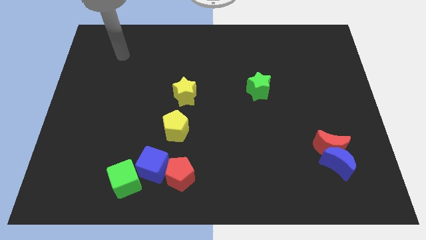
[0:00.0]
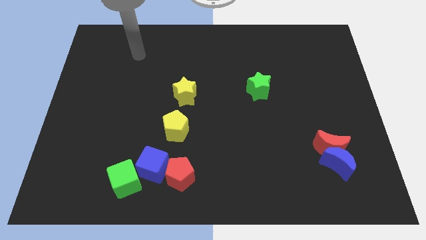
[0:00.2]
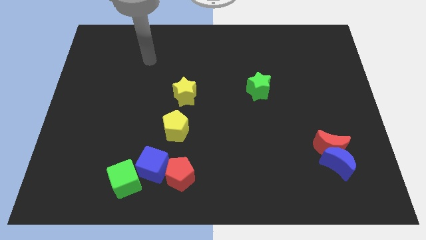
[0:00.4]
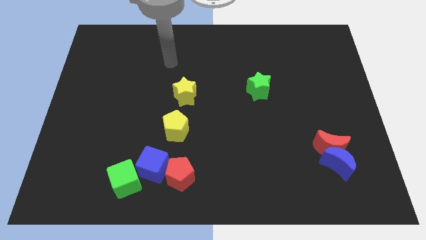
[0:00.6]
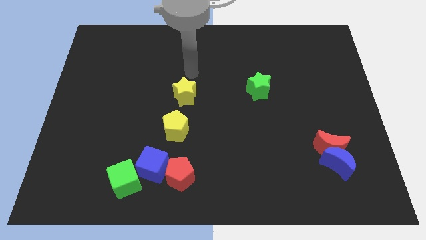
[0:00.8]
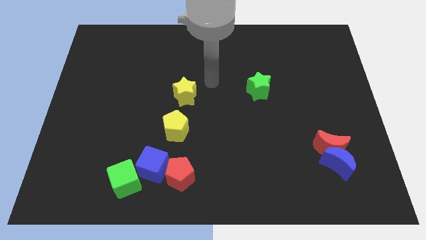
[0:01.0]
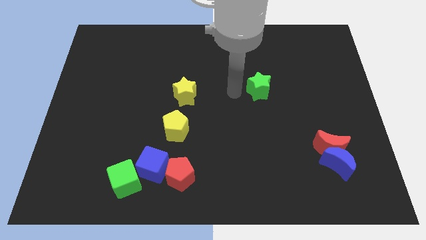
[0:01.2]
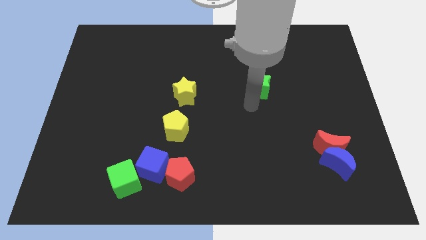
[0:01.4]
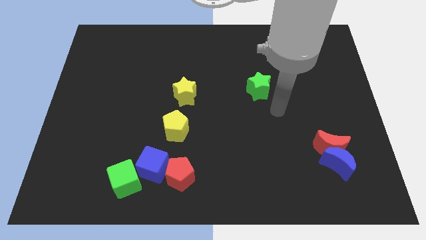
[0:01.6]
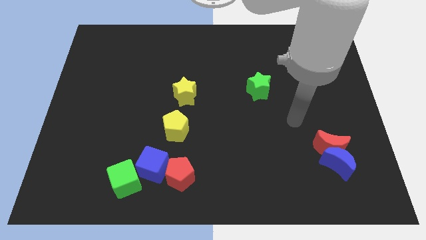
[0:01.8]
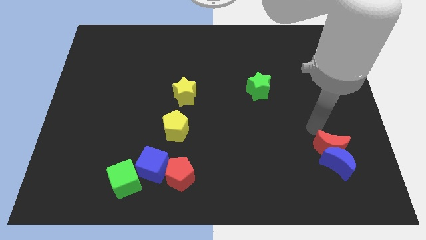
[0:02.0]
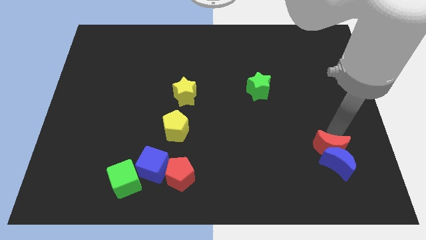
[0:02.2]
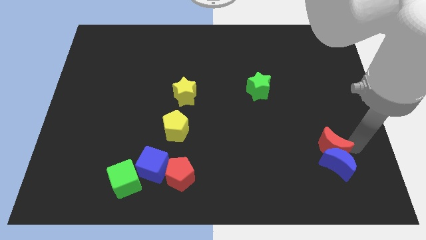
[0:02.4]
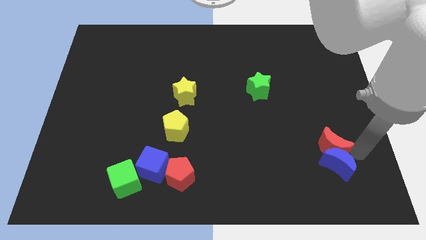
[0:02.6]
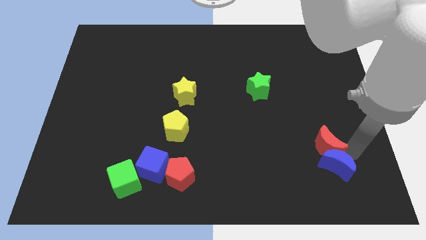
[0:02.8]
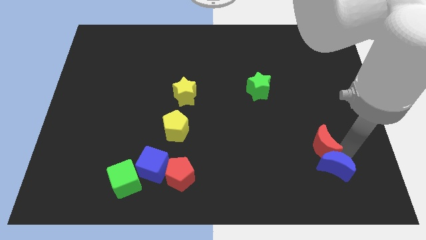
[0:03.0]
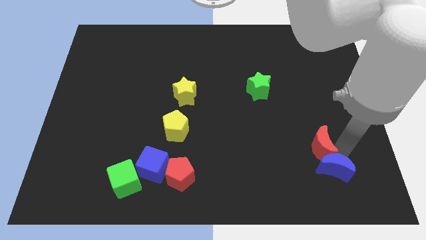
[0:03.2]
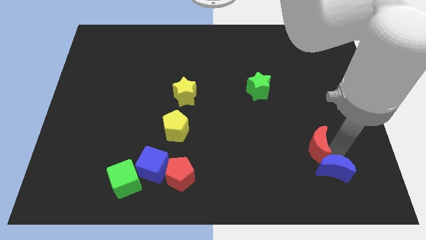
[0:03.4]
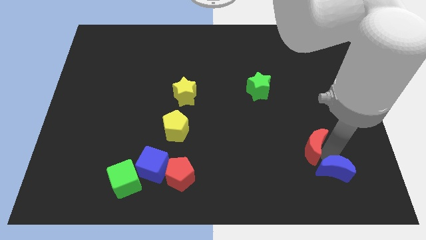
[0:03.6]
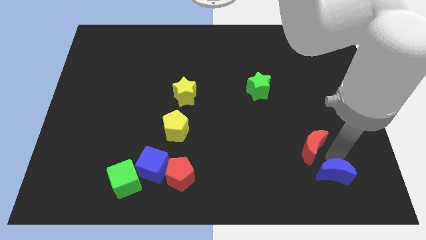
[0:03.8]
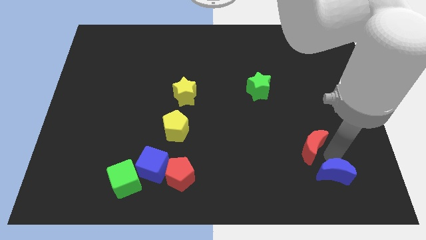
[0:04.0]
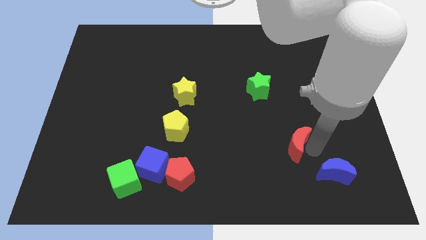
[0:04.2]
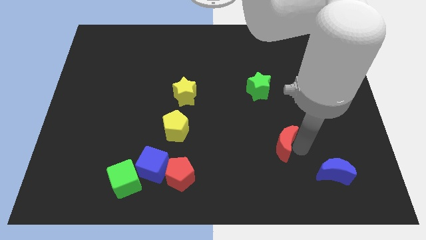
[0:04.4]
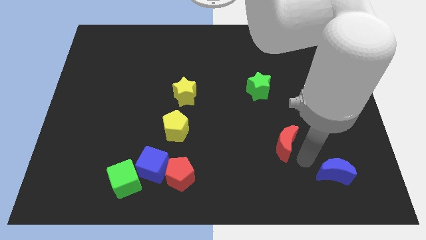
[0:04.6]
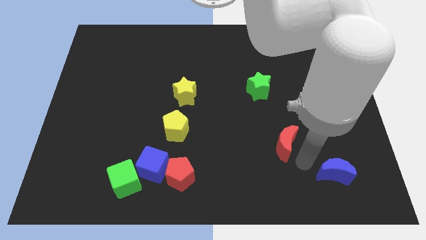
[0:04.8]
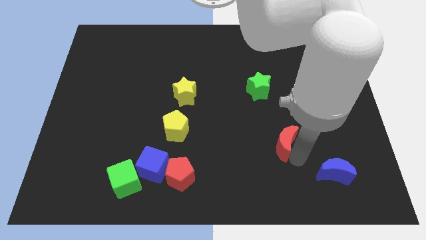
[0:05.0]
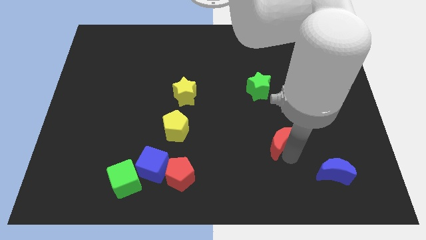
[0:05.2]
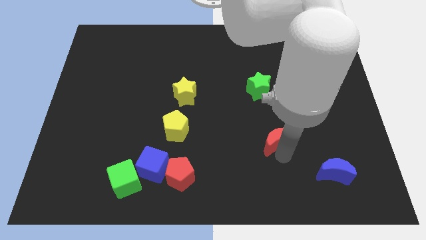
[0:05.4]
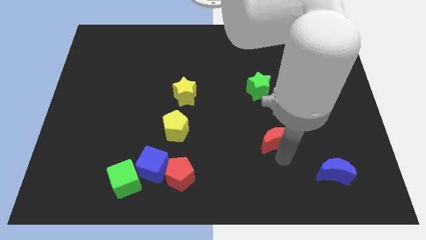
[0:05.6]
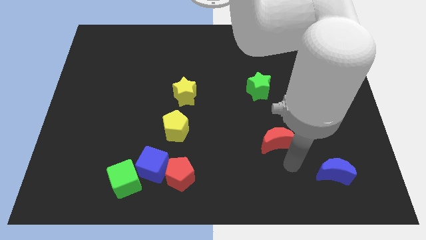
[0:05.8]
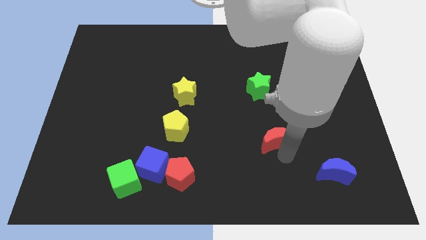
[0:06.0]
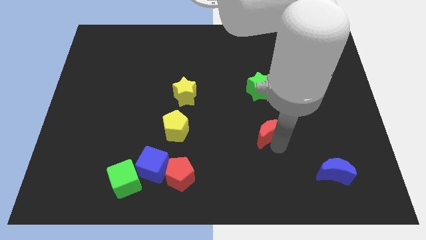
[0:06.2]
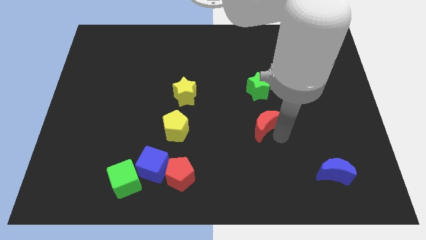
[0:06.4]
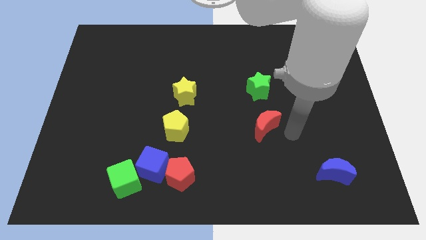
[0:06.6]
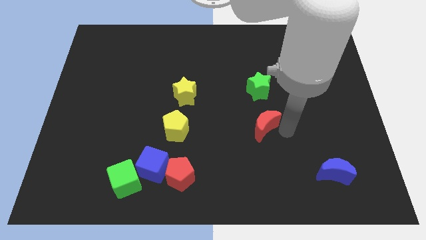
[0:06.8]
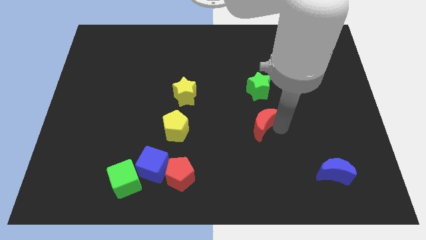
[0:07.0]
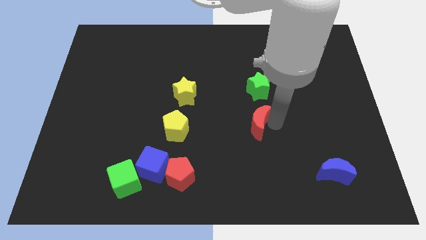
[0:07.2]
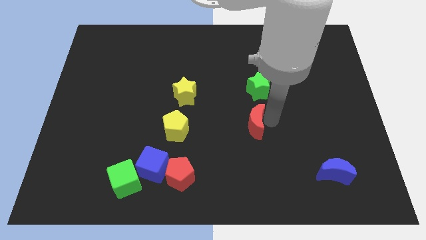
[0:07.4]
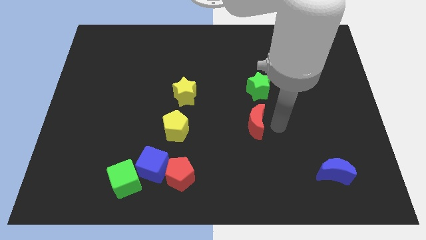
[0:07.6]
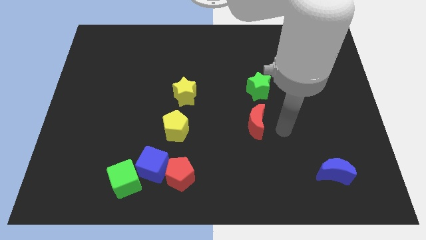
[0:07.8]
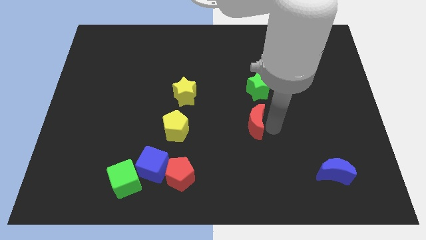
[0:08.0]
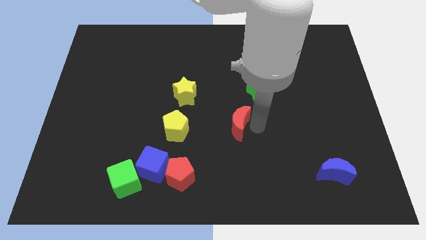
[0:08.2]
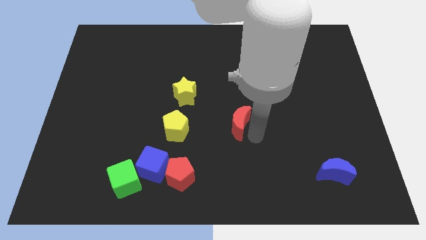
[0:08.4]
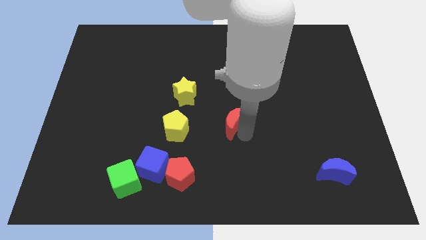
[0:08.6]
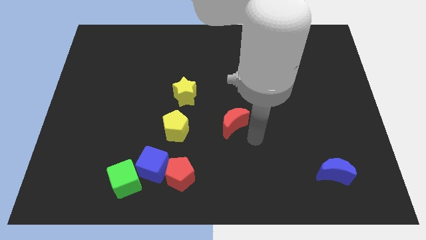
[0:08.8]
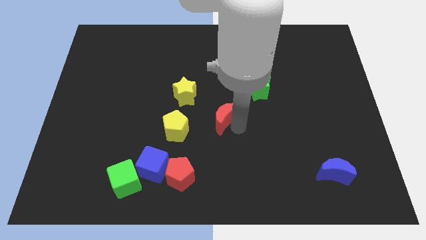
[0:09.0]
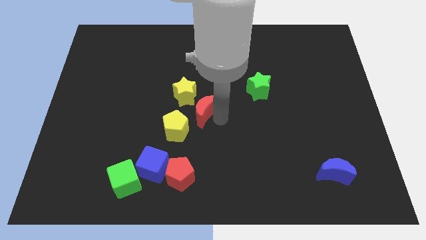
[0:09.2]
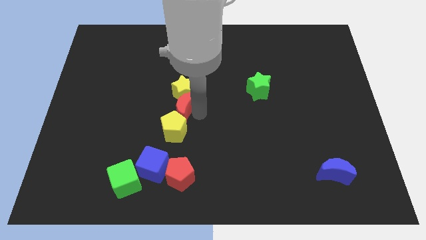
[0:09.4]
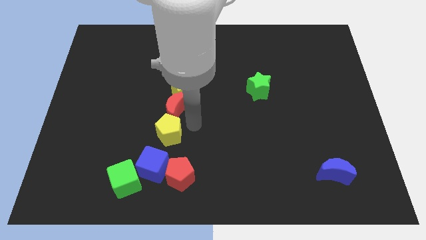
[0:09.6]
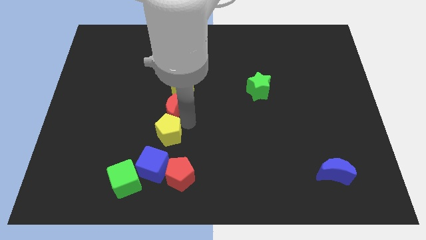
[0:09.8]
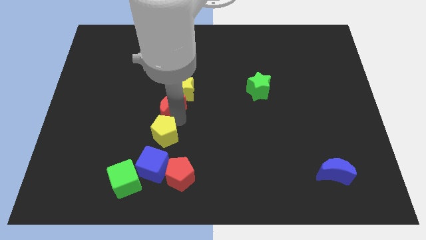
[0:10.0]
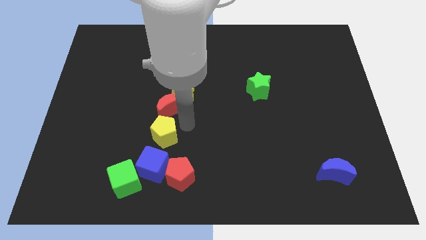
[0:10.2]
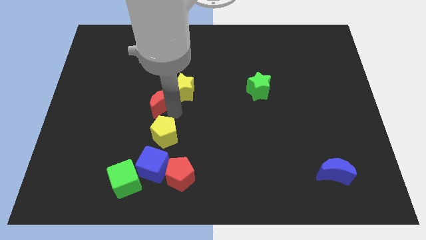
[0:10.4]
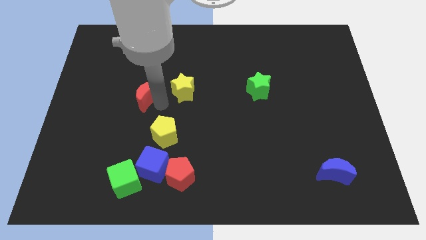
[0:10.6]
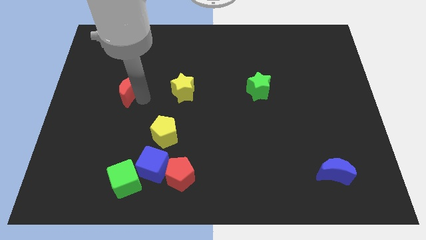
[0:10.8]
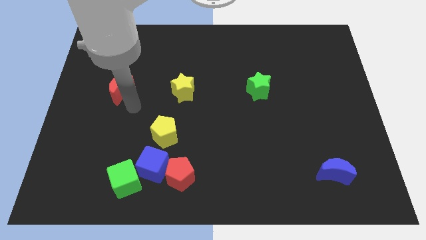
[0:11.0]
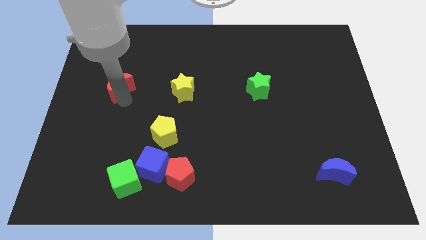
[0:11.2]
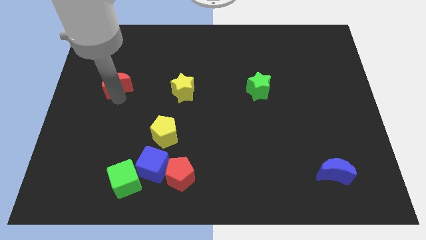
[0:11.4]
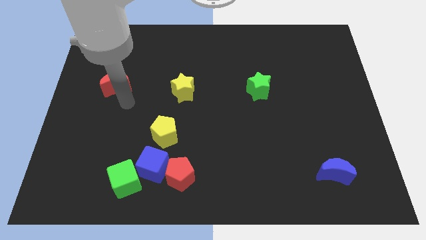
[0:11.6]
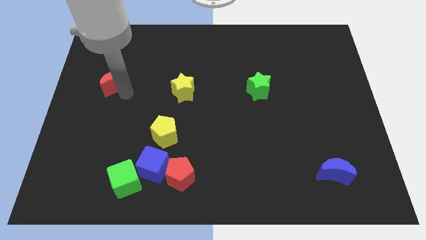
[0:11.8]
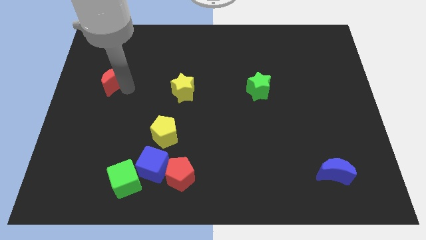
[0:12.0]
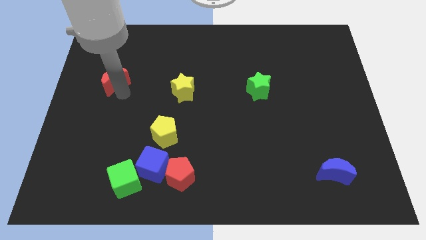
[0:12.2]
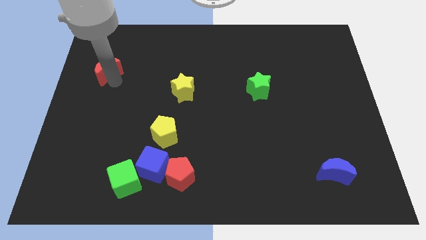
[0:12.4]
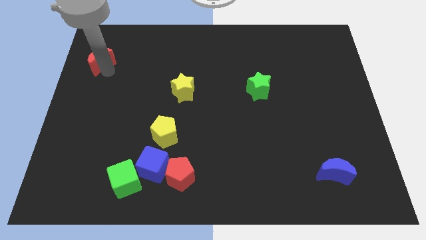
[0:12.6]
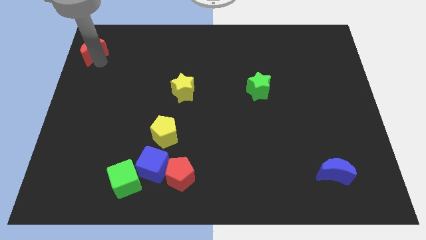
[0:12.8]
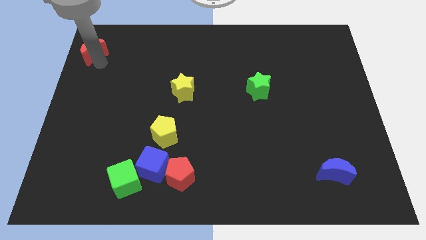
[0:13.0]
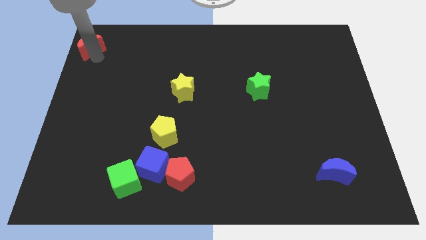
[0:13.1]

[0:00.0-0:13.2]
push the red moon to the top left of the board
